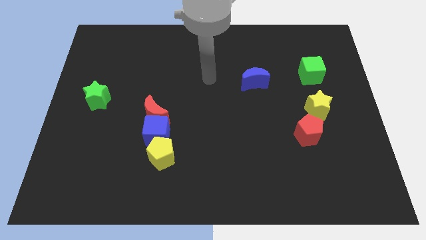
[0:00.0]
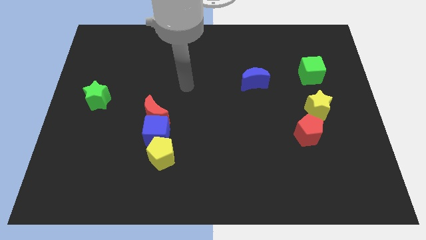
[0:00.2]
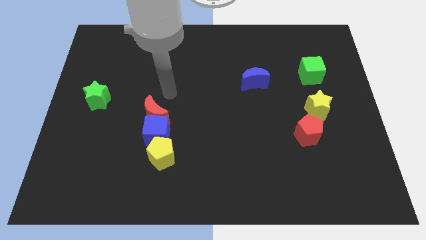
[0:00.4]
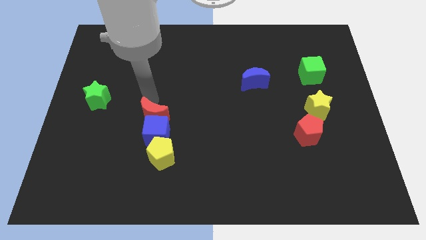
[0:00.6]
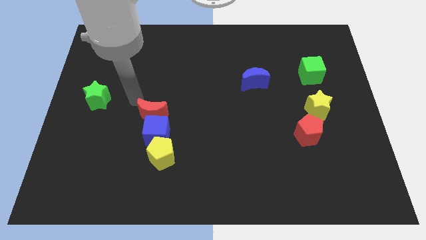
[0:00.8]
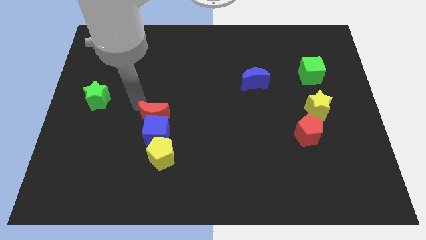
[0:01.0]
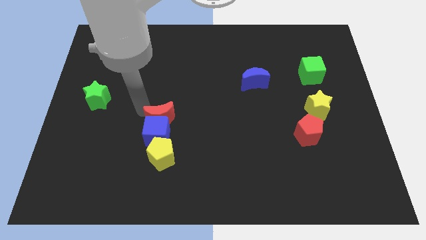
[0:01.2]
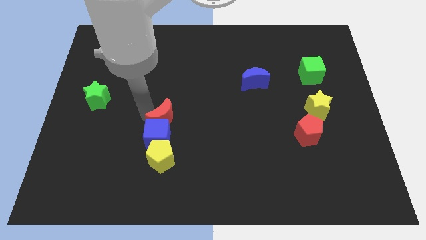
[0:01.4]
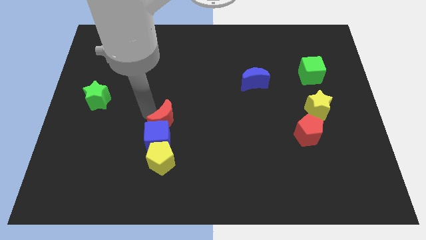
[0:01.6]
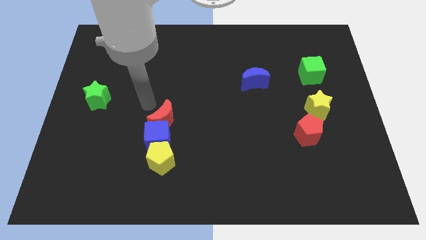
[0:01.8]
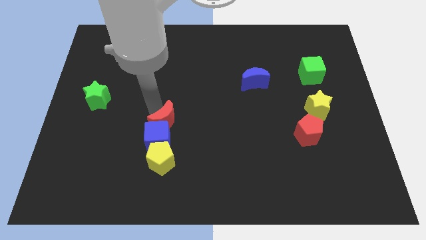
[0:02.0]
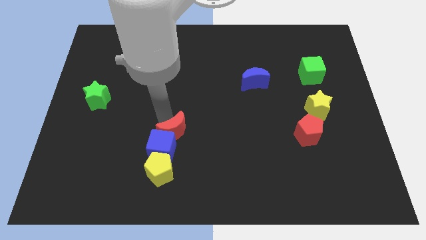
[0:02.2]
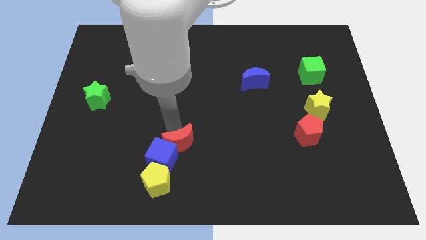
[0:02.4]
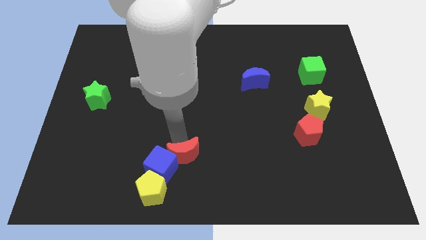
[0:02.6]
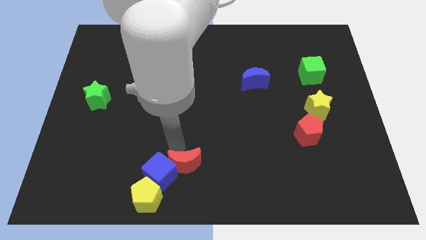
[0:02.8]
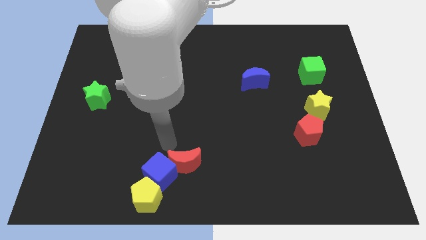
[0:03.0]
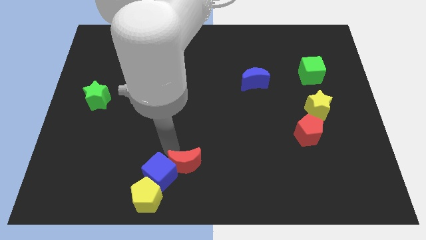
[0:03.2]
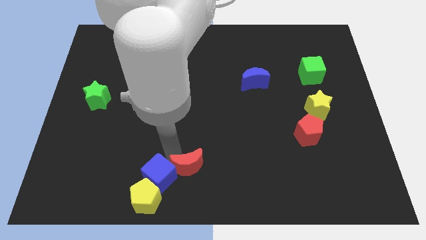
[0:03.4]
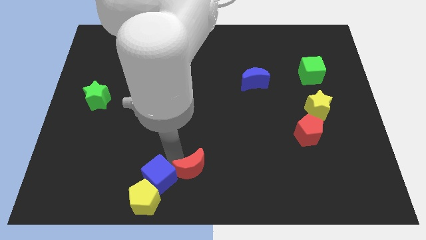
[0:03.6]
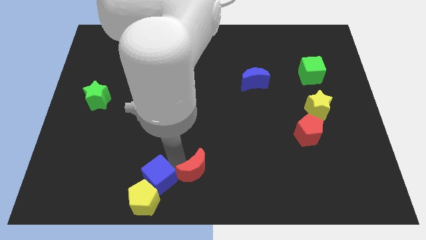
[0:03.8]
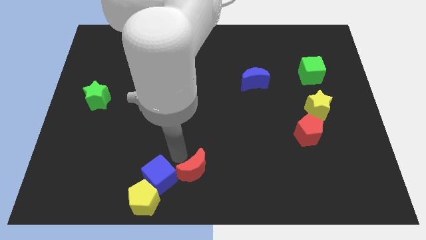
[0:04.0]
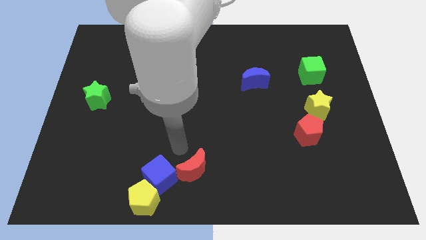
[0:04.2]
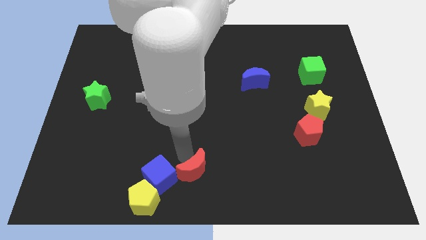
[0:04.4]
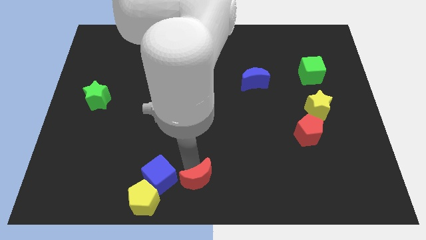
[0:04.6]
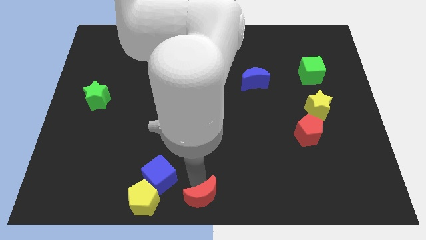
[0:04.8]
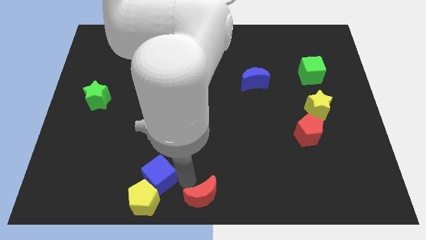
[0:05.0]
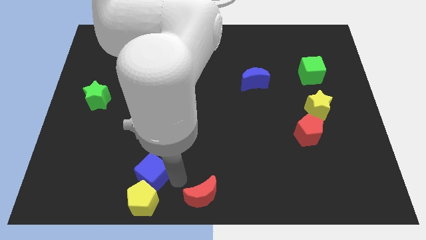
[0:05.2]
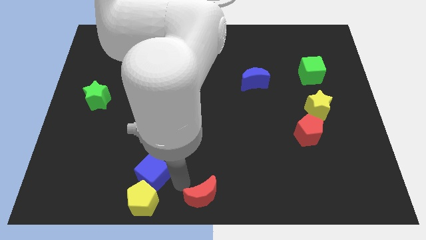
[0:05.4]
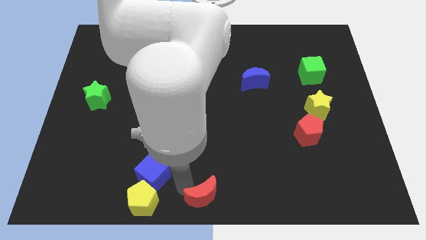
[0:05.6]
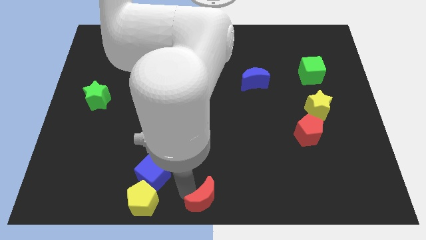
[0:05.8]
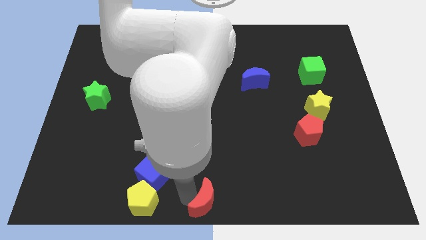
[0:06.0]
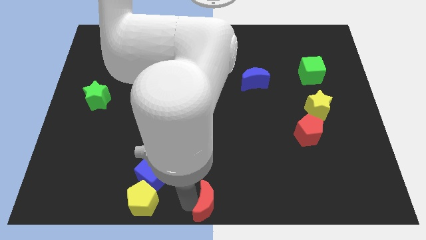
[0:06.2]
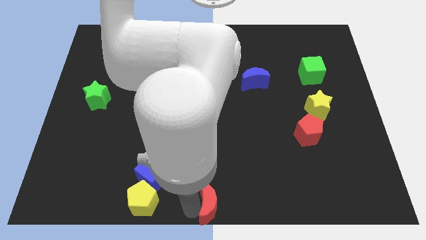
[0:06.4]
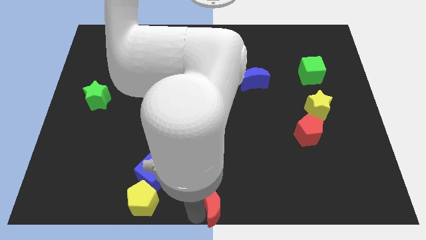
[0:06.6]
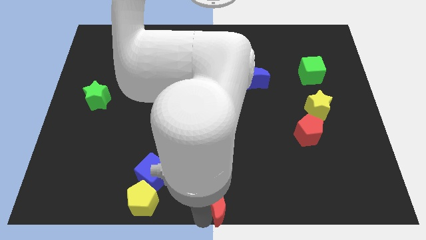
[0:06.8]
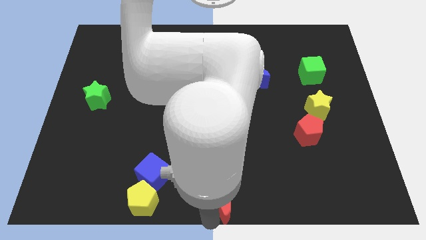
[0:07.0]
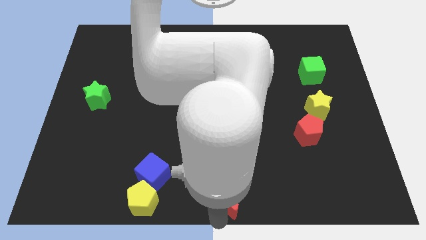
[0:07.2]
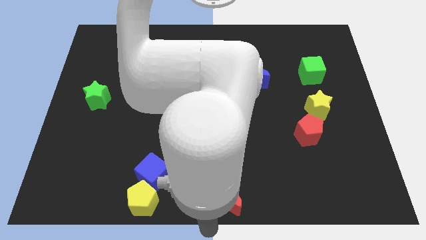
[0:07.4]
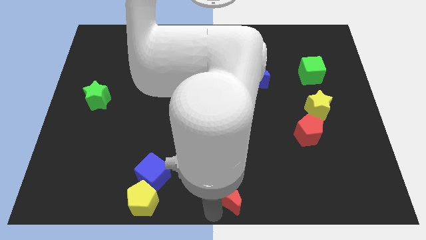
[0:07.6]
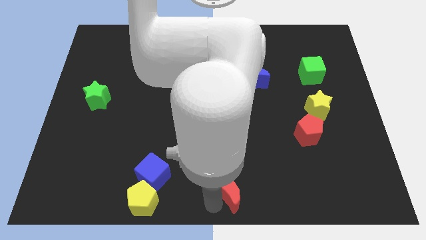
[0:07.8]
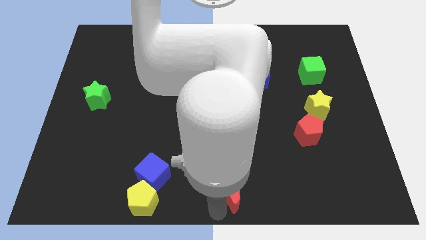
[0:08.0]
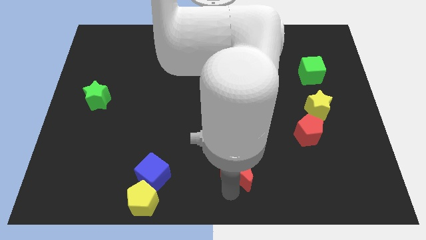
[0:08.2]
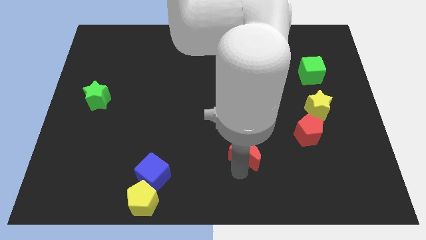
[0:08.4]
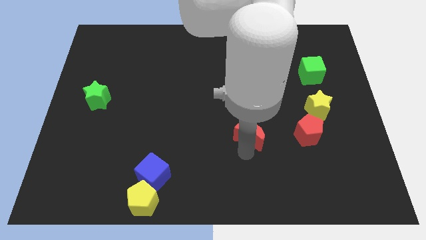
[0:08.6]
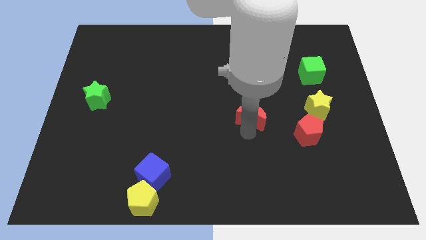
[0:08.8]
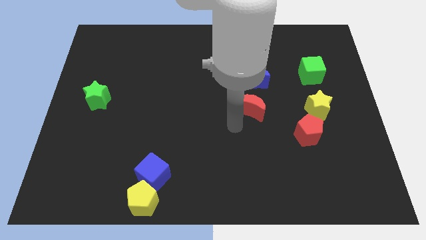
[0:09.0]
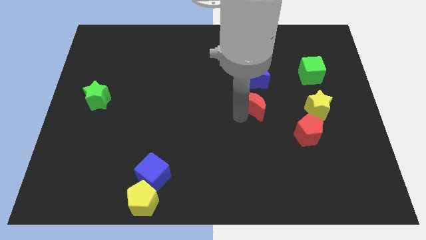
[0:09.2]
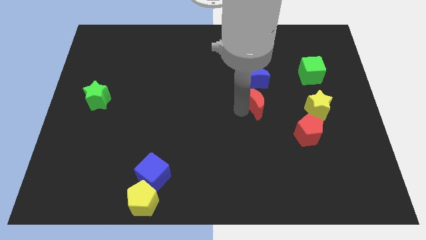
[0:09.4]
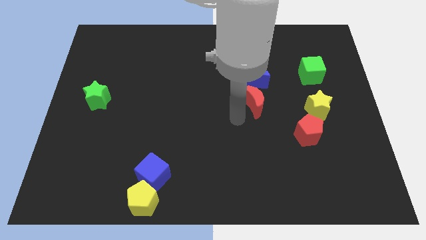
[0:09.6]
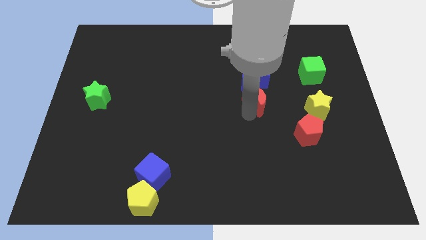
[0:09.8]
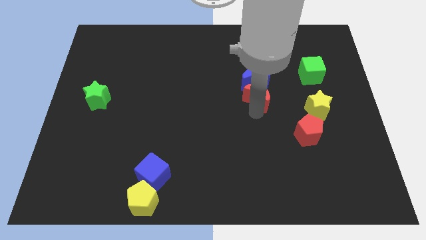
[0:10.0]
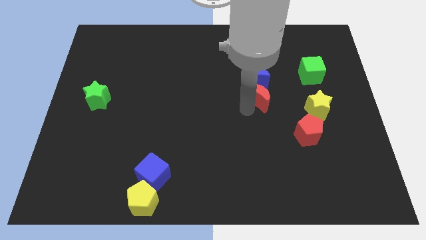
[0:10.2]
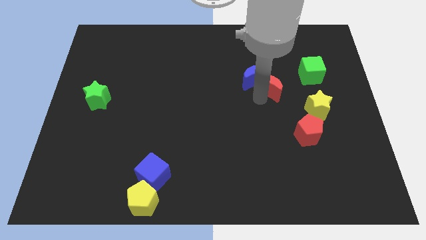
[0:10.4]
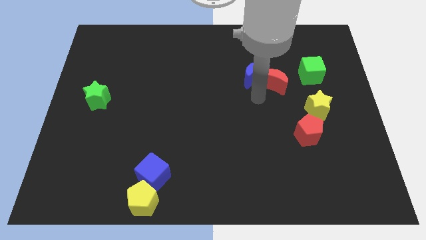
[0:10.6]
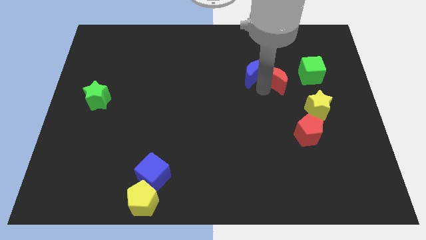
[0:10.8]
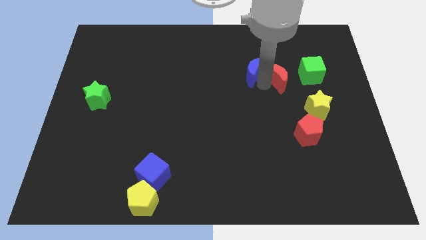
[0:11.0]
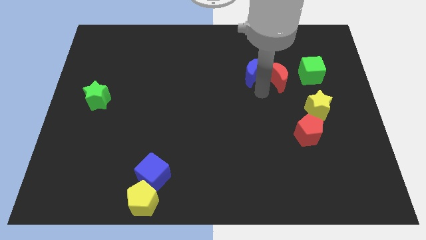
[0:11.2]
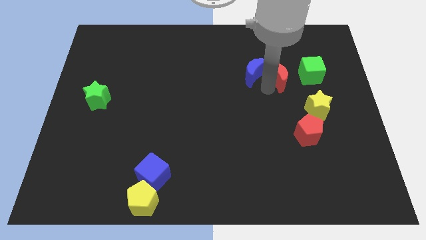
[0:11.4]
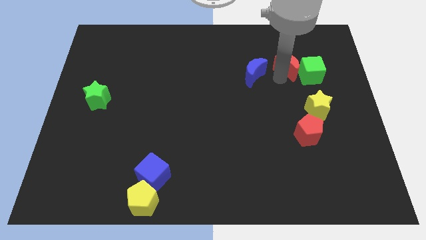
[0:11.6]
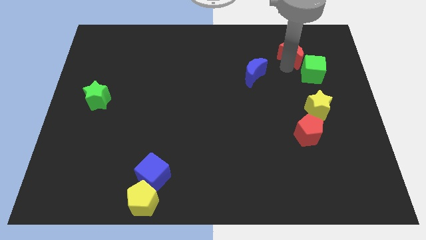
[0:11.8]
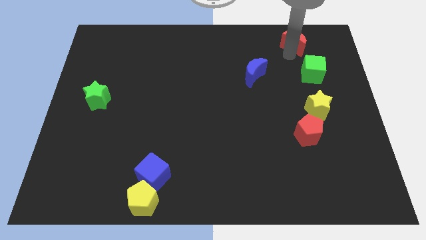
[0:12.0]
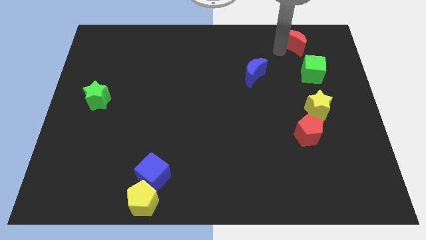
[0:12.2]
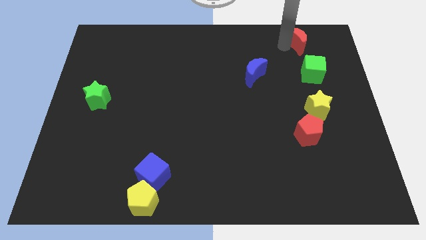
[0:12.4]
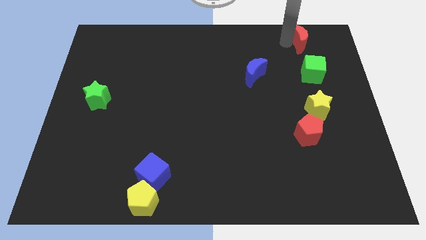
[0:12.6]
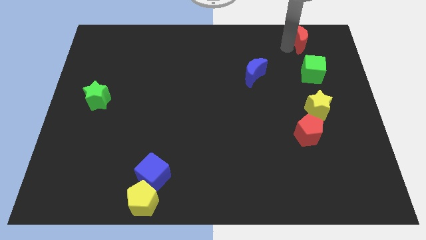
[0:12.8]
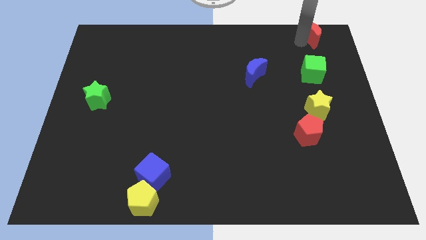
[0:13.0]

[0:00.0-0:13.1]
put the red moon to the top right
